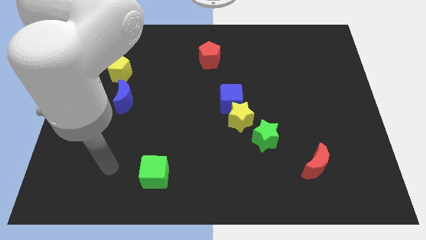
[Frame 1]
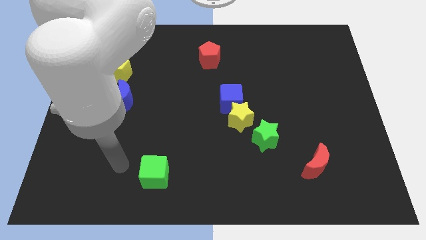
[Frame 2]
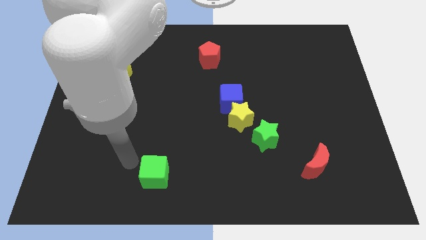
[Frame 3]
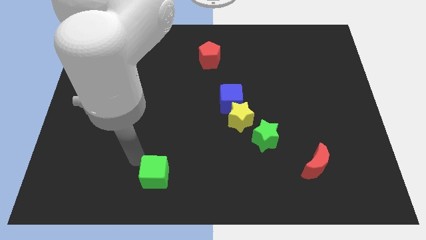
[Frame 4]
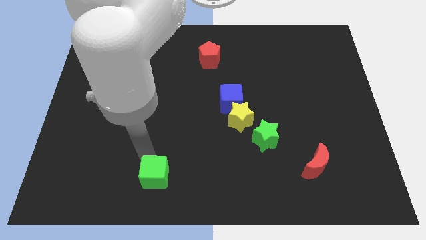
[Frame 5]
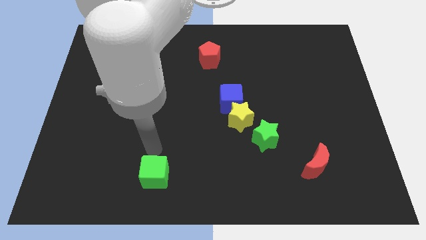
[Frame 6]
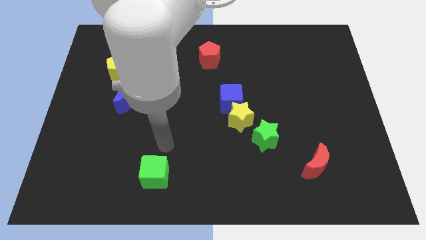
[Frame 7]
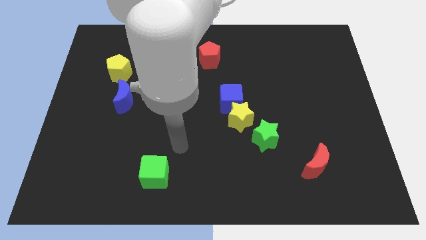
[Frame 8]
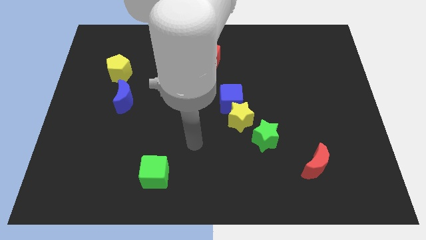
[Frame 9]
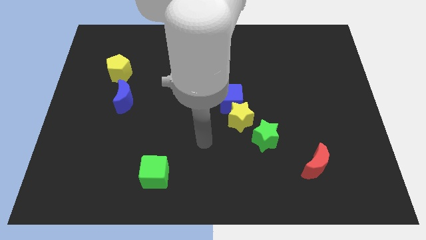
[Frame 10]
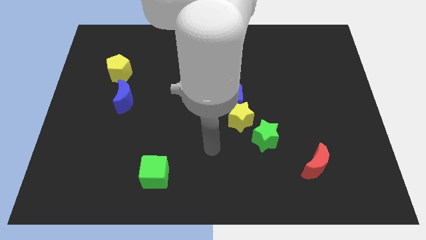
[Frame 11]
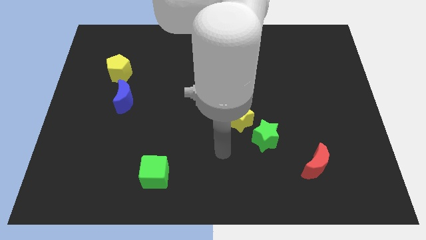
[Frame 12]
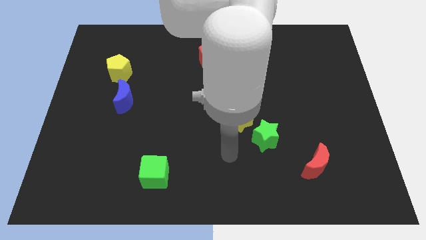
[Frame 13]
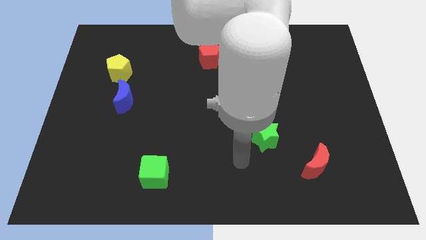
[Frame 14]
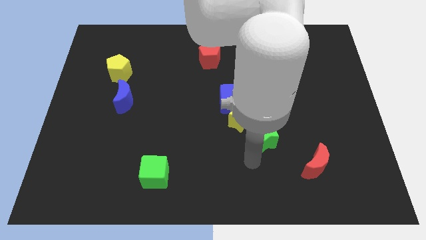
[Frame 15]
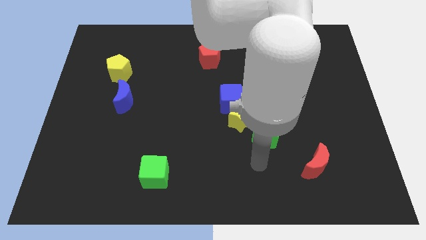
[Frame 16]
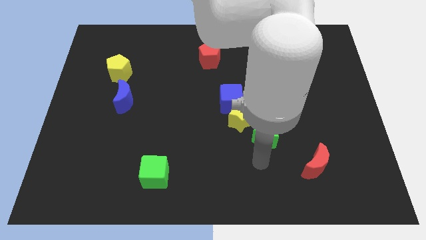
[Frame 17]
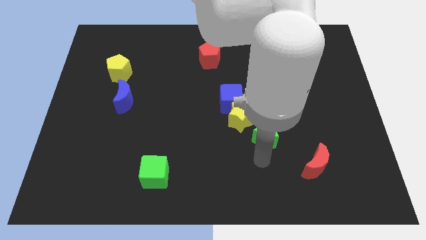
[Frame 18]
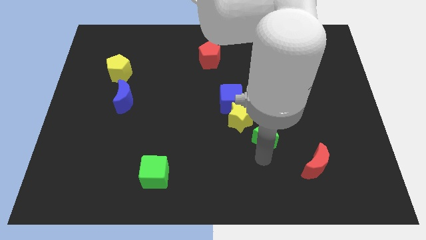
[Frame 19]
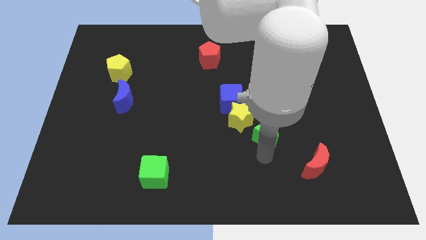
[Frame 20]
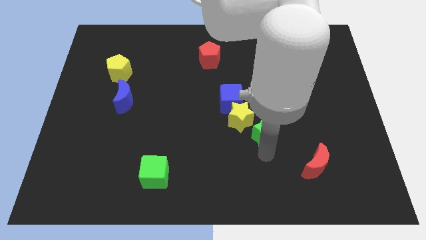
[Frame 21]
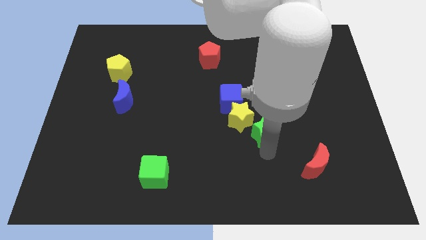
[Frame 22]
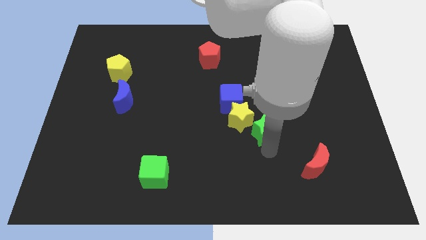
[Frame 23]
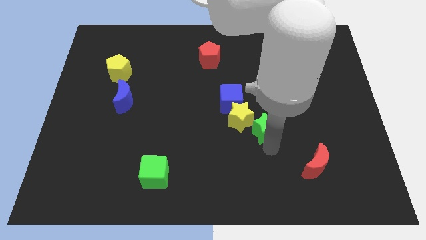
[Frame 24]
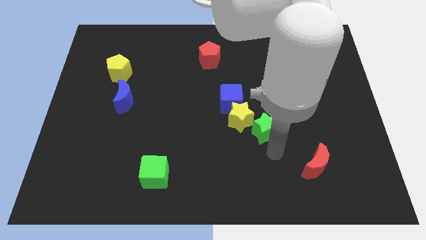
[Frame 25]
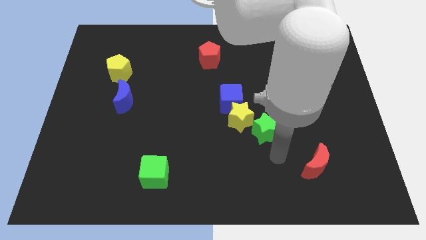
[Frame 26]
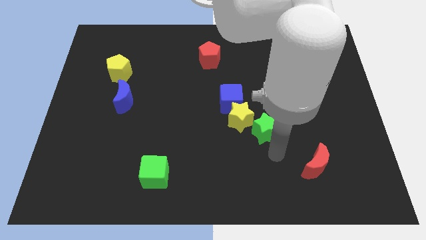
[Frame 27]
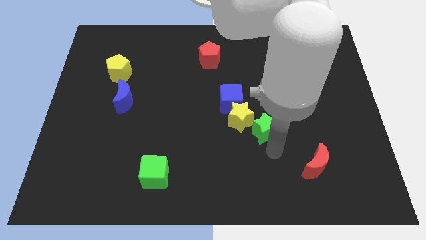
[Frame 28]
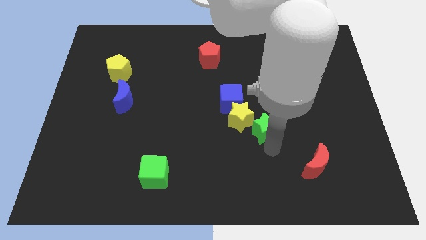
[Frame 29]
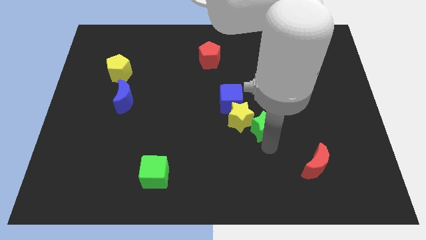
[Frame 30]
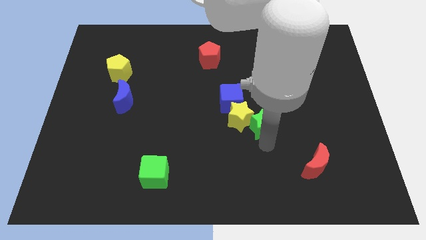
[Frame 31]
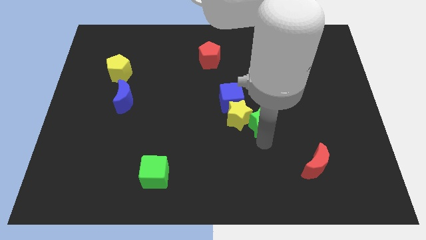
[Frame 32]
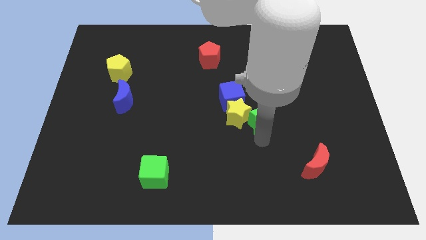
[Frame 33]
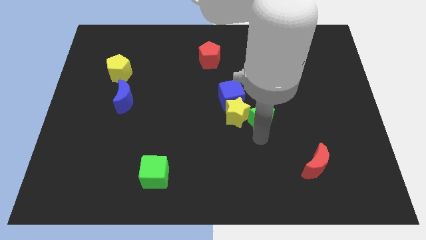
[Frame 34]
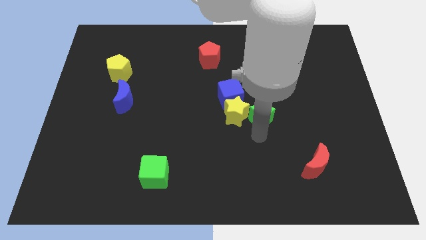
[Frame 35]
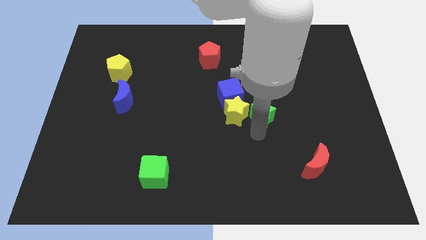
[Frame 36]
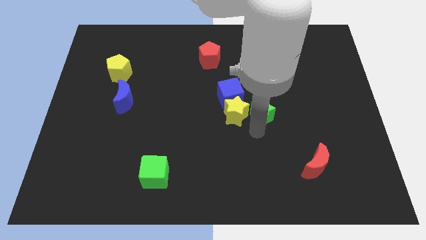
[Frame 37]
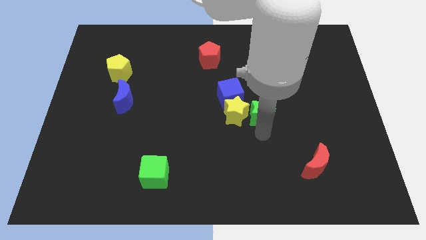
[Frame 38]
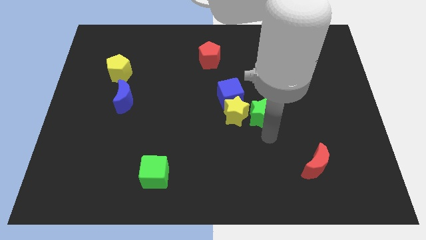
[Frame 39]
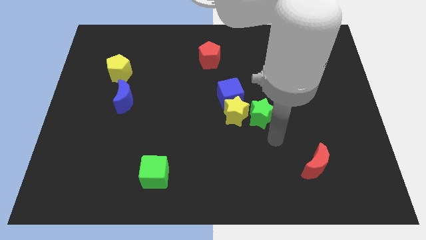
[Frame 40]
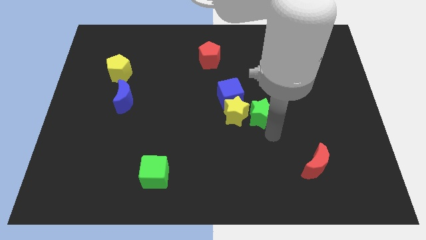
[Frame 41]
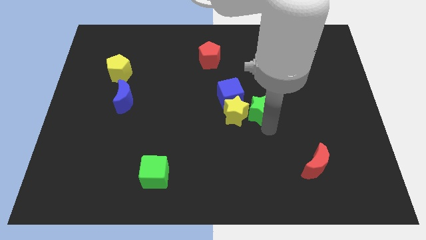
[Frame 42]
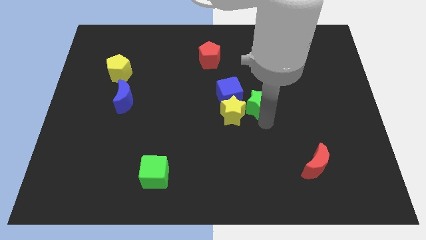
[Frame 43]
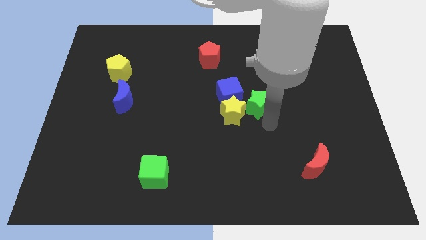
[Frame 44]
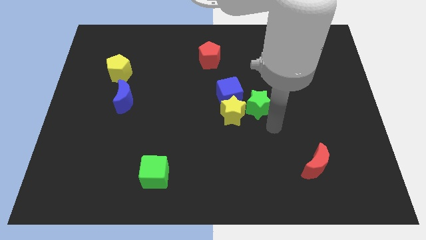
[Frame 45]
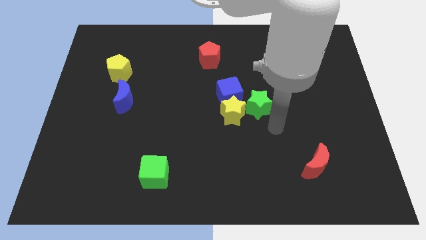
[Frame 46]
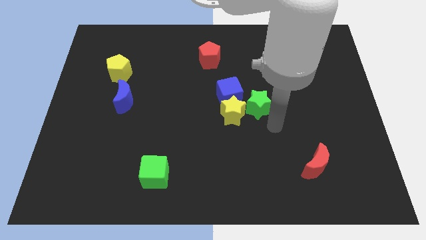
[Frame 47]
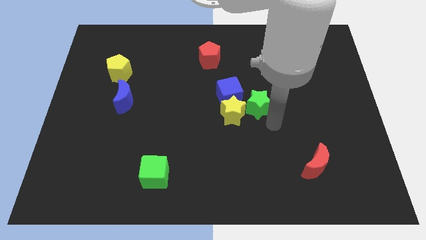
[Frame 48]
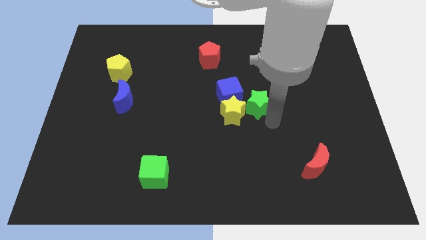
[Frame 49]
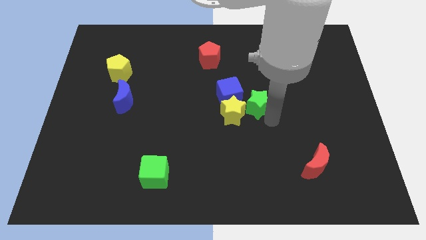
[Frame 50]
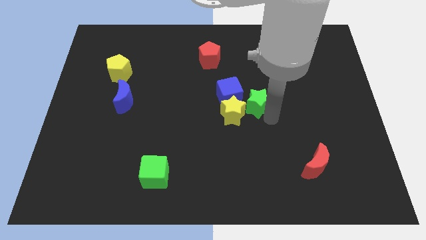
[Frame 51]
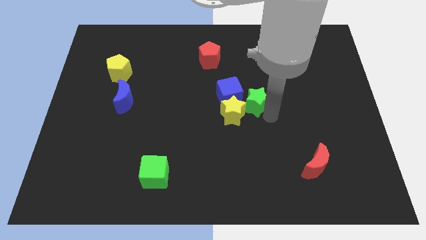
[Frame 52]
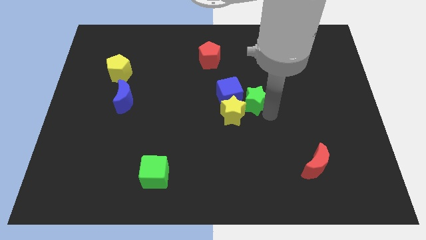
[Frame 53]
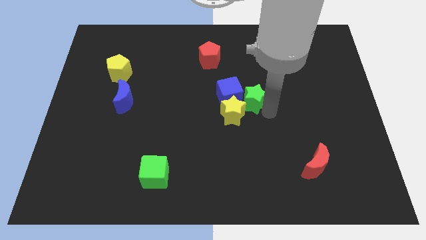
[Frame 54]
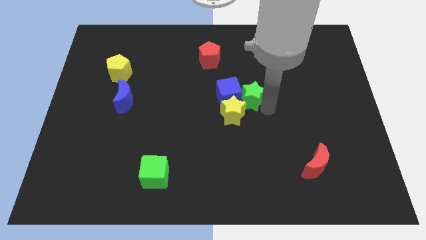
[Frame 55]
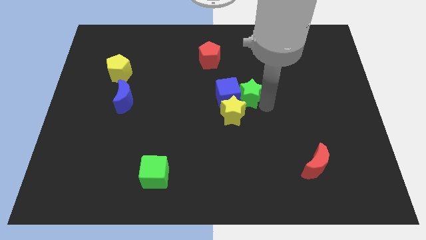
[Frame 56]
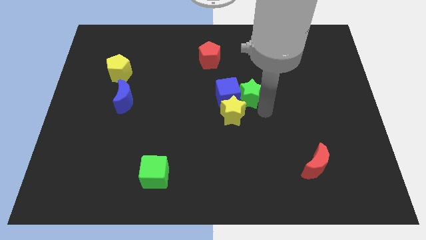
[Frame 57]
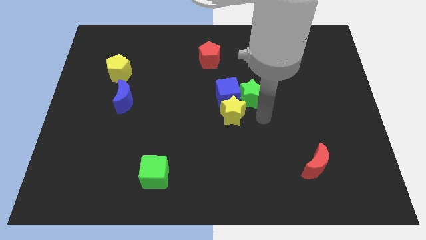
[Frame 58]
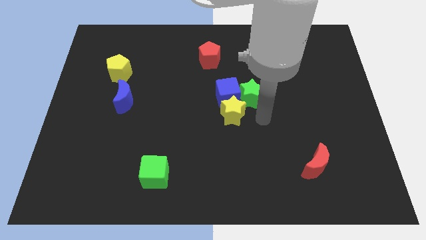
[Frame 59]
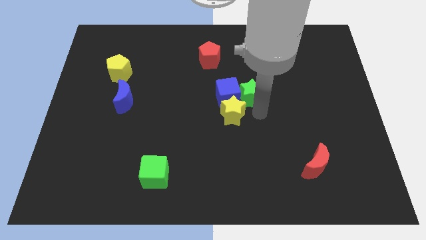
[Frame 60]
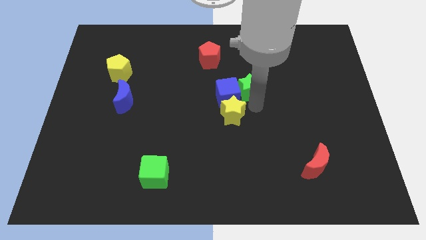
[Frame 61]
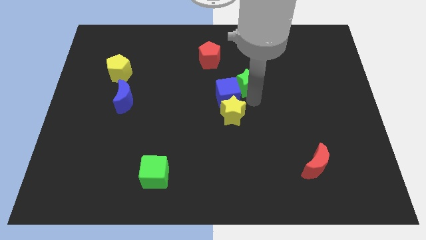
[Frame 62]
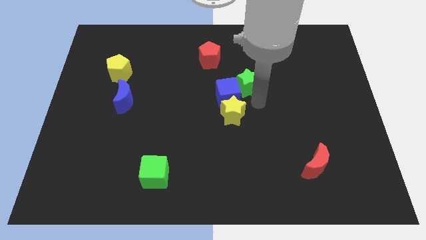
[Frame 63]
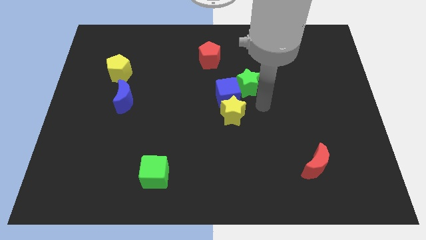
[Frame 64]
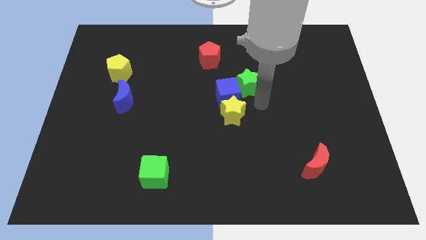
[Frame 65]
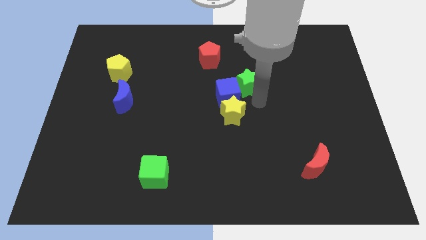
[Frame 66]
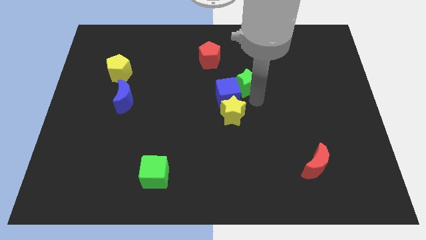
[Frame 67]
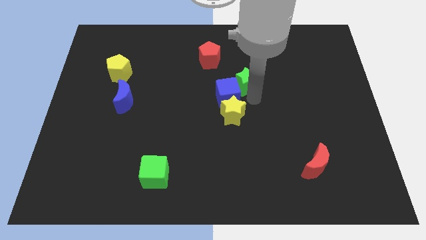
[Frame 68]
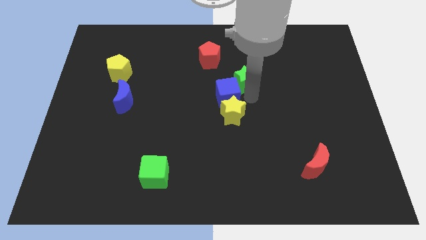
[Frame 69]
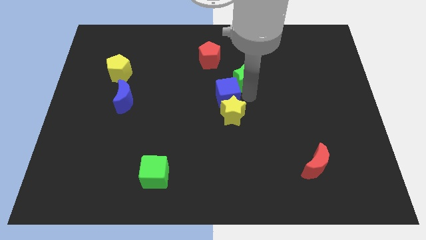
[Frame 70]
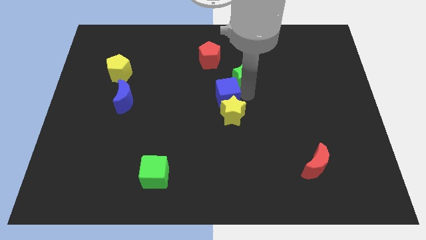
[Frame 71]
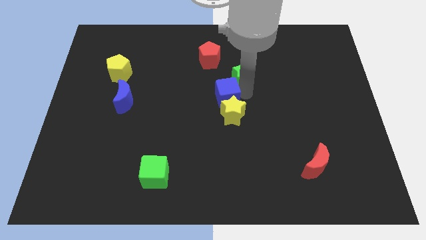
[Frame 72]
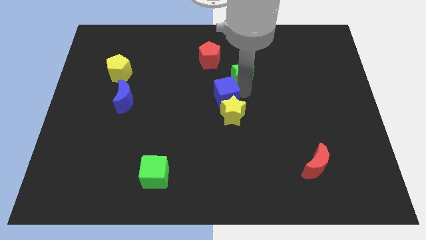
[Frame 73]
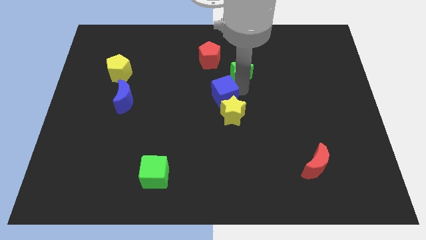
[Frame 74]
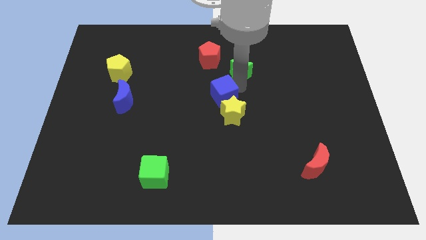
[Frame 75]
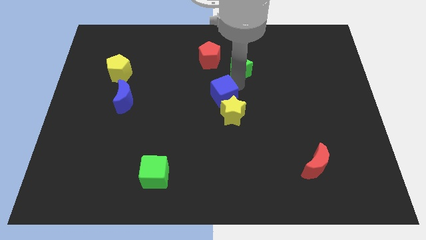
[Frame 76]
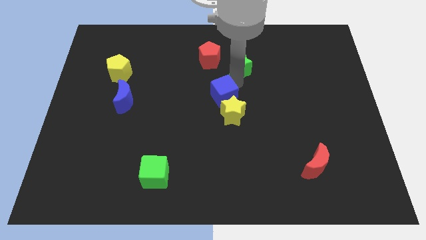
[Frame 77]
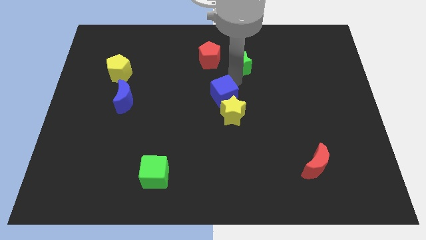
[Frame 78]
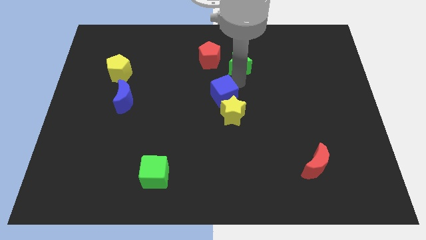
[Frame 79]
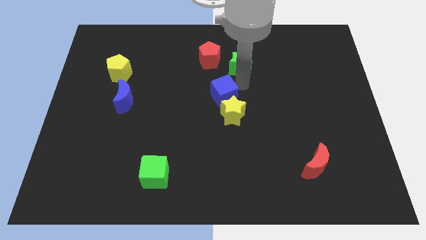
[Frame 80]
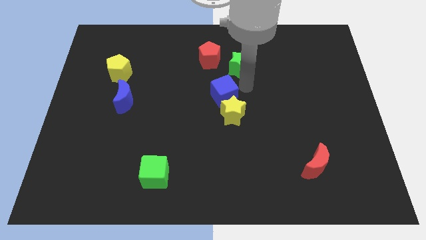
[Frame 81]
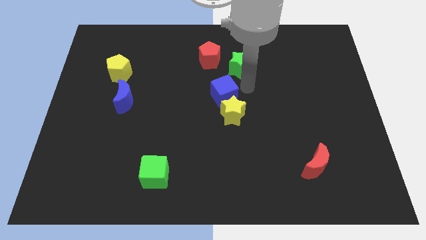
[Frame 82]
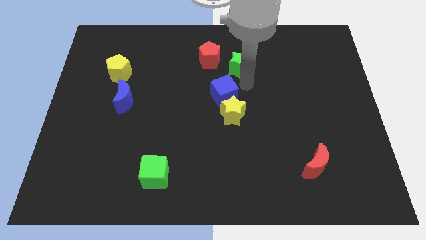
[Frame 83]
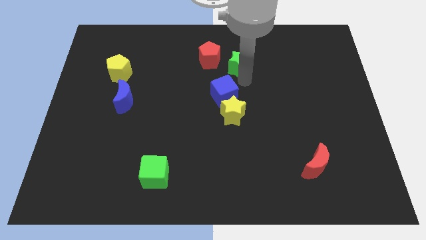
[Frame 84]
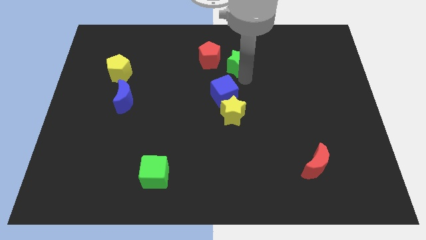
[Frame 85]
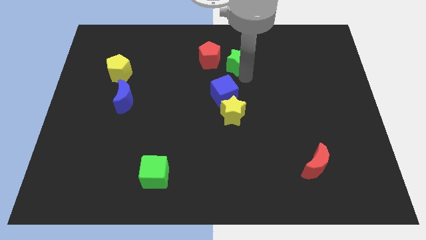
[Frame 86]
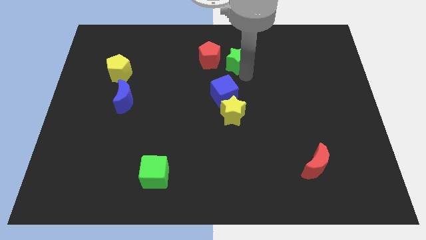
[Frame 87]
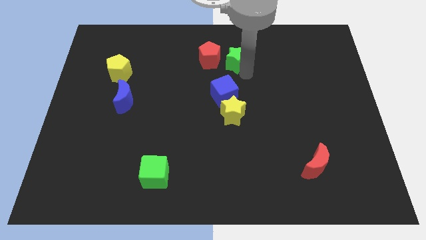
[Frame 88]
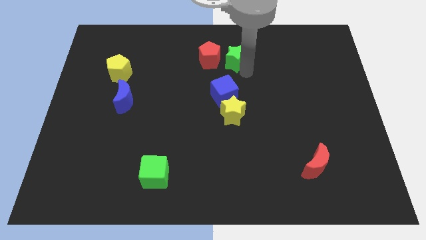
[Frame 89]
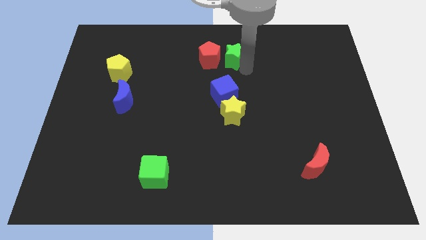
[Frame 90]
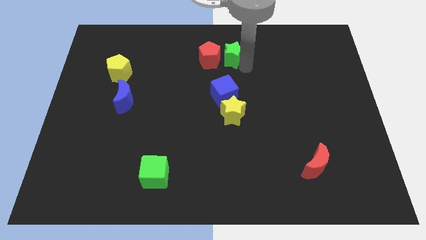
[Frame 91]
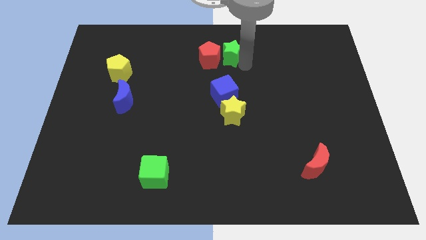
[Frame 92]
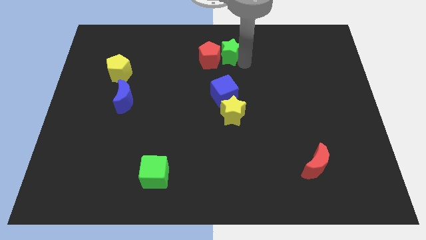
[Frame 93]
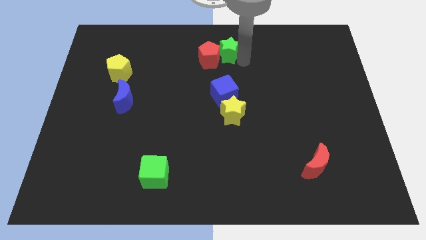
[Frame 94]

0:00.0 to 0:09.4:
move the green star to the towards your base
